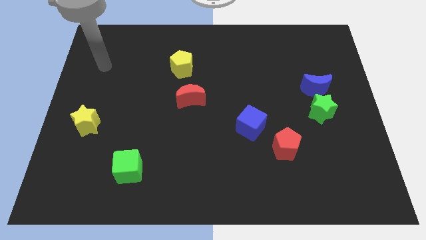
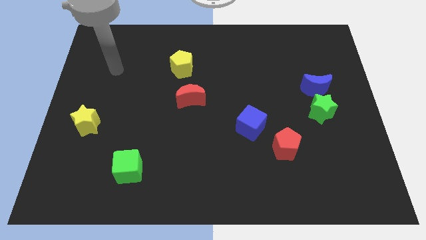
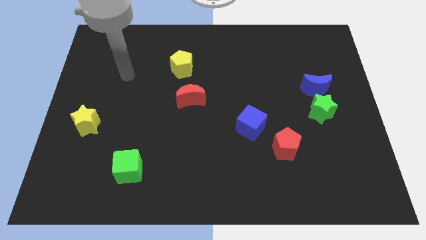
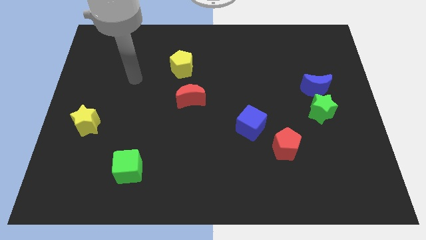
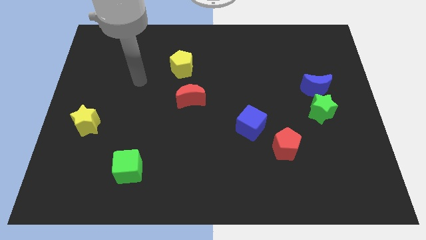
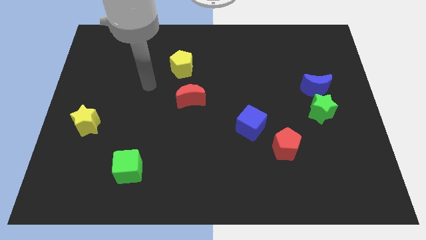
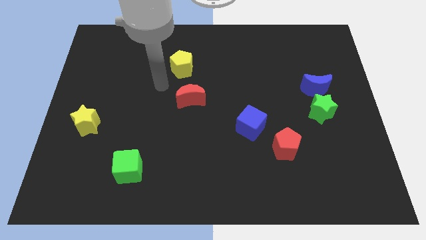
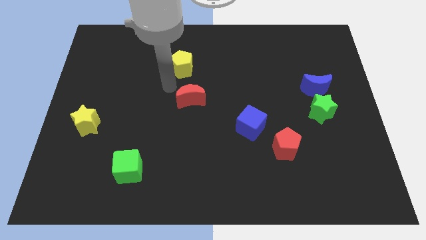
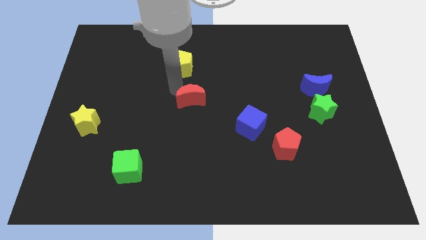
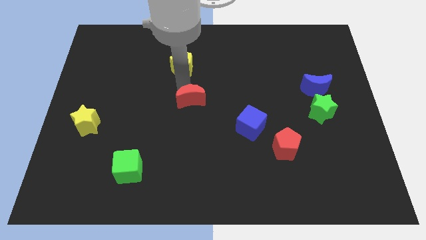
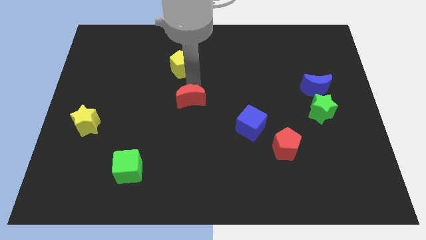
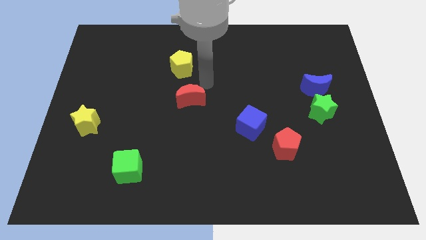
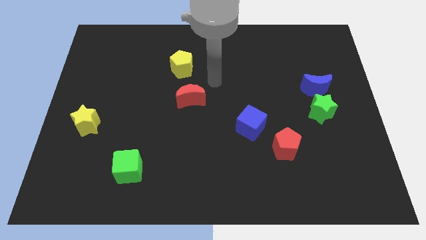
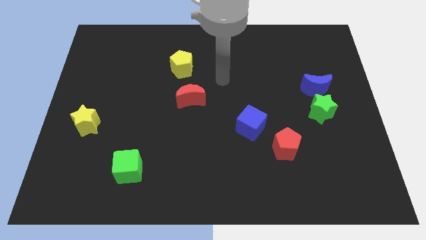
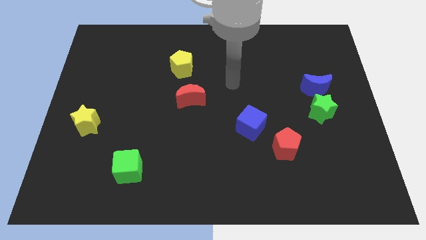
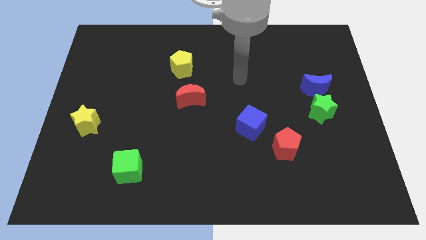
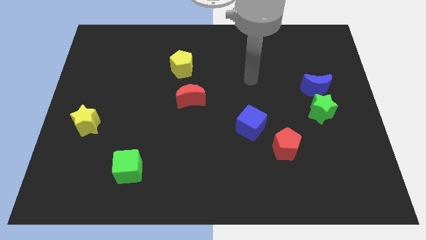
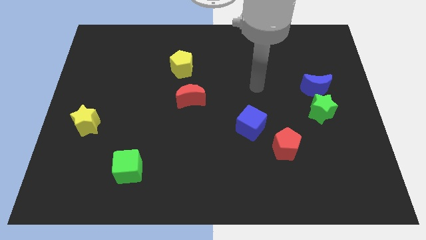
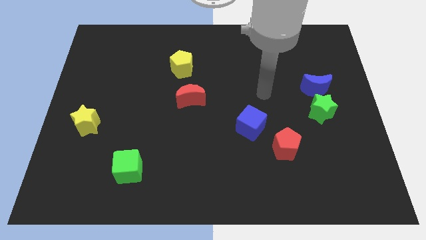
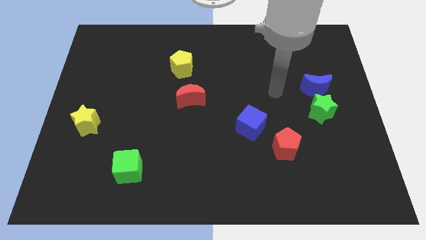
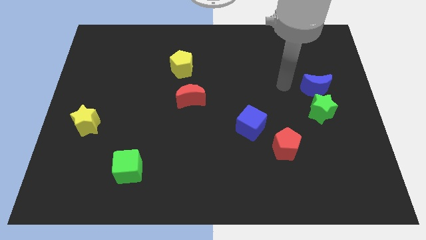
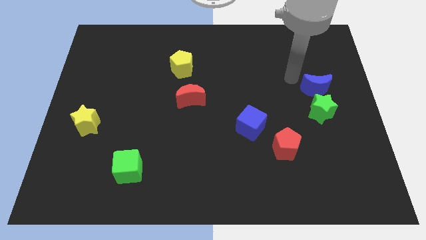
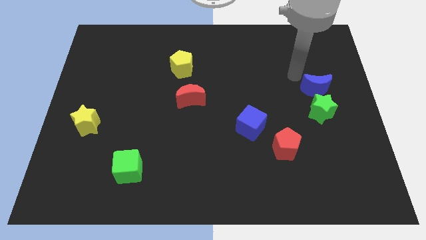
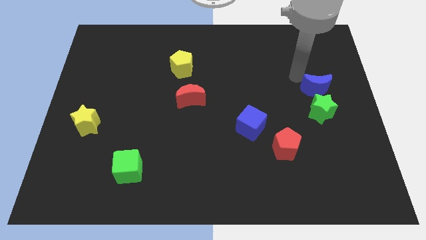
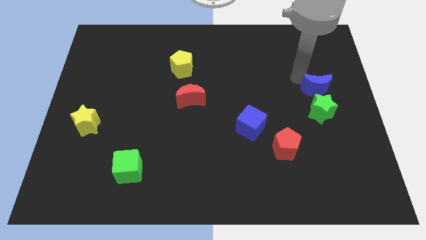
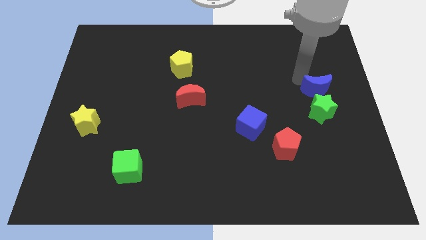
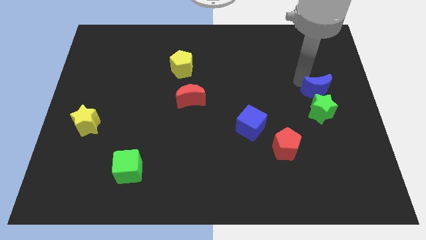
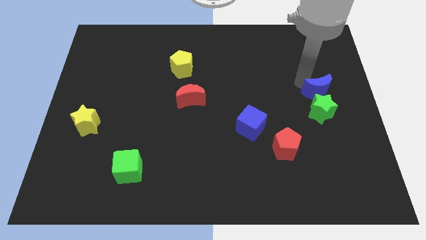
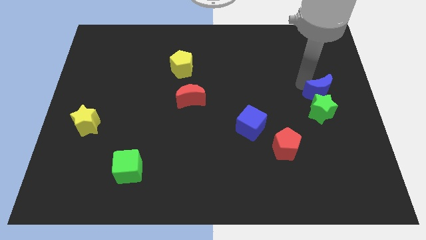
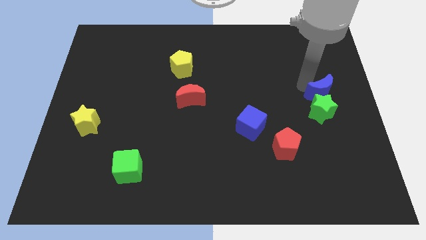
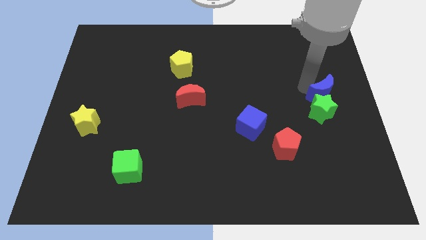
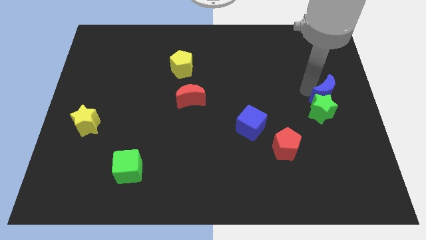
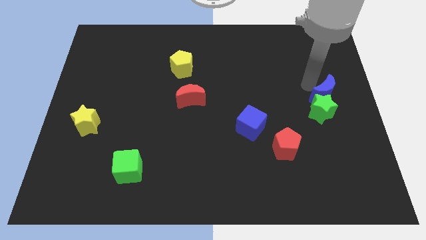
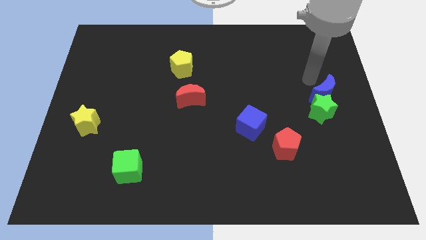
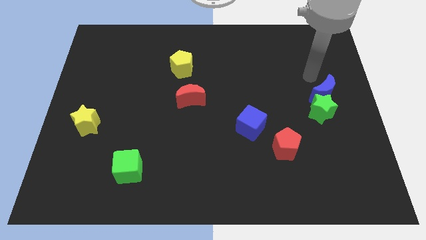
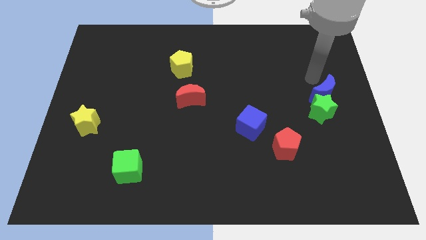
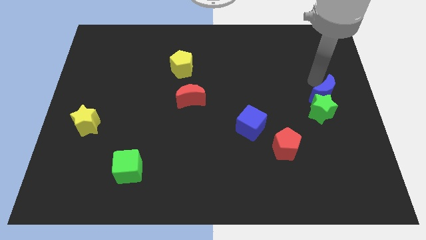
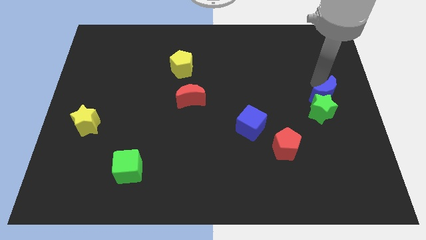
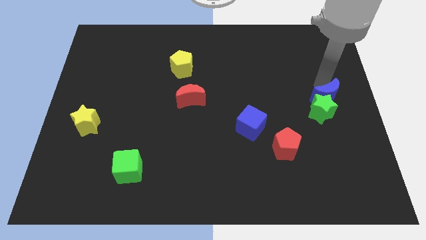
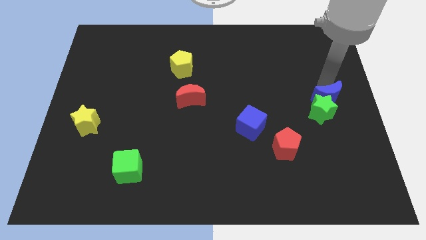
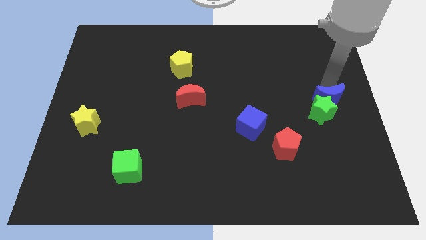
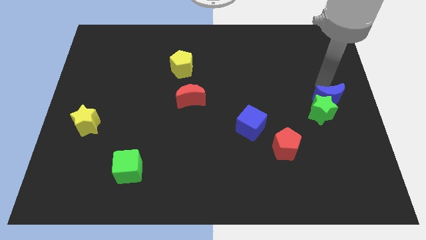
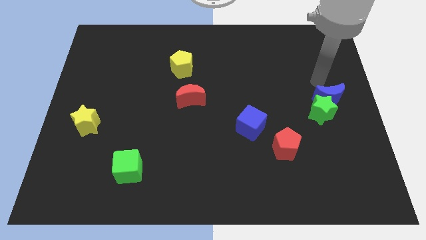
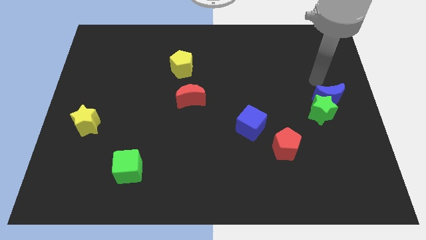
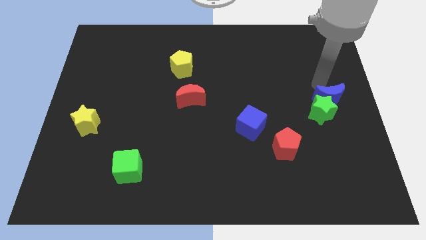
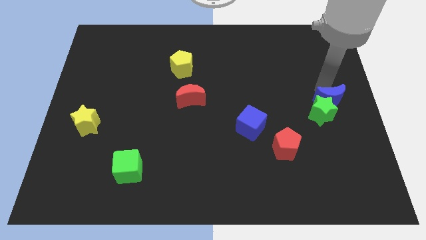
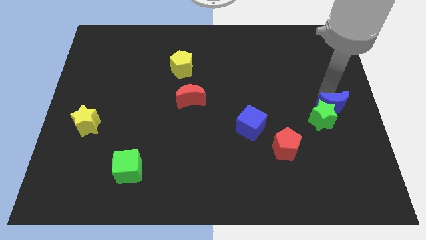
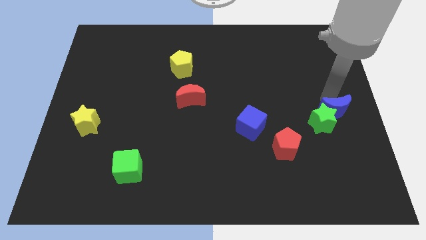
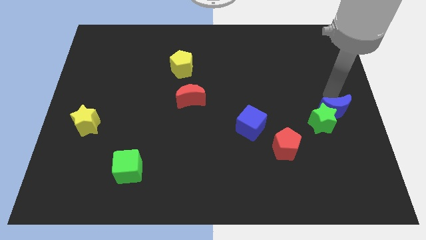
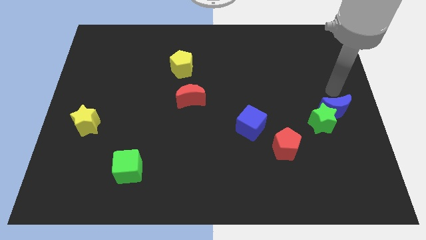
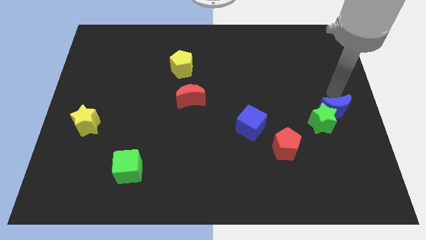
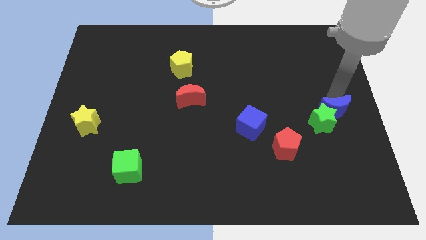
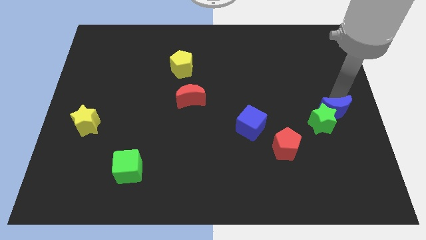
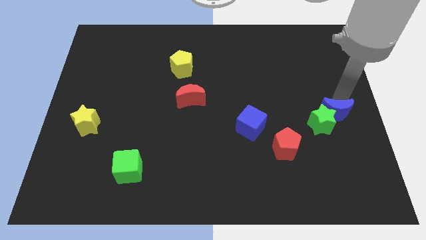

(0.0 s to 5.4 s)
slide the blue moon down somewhat

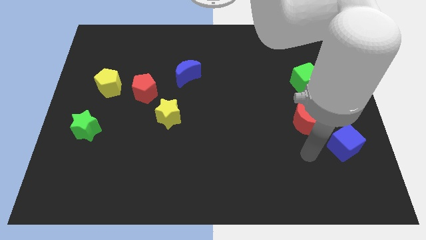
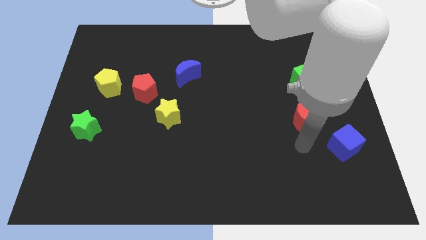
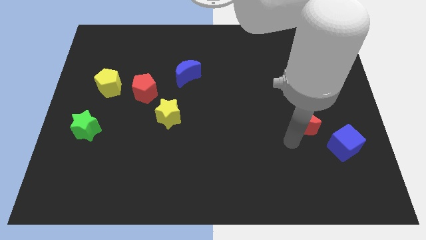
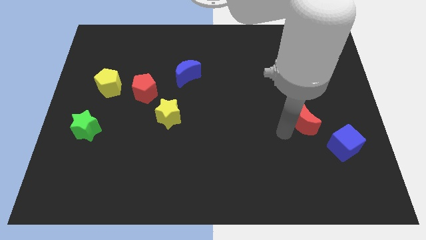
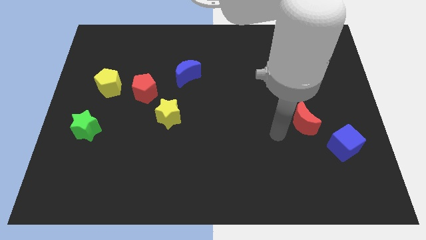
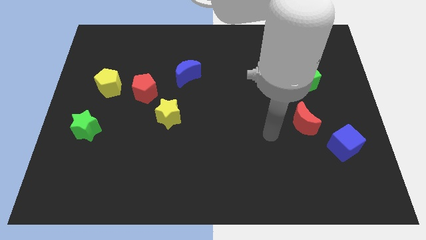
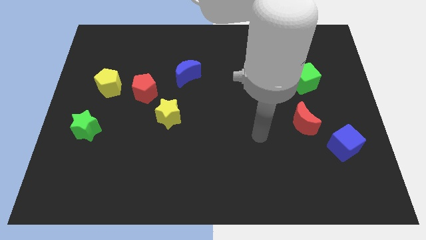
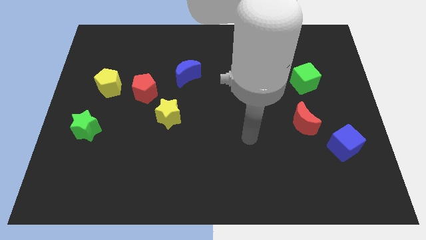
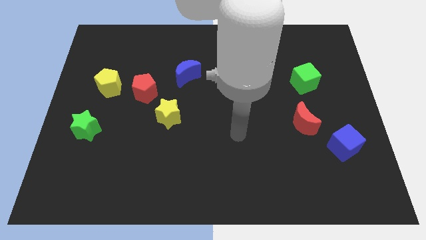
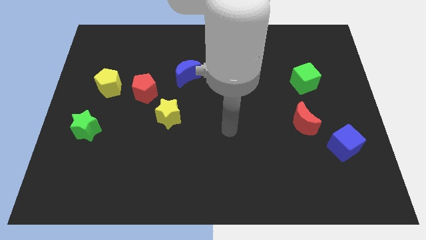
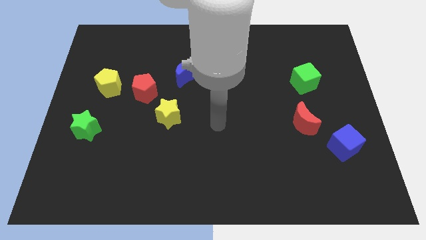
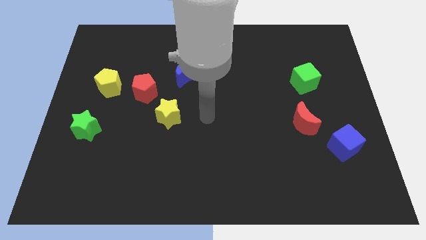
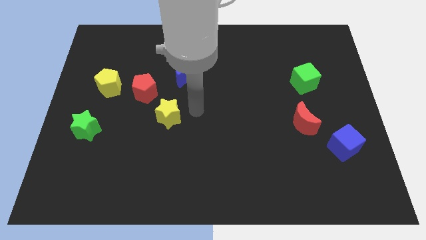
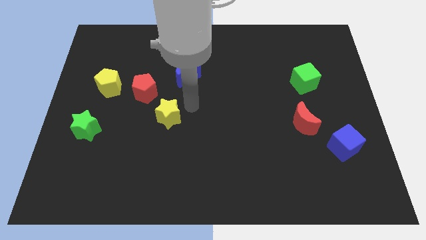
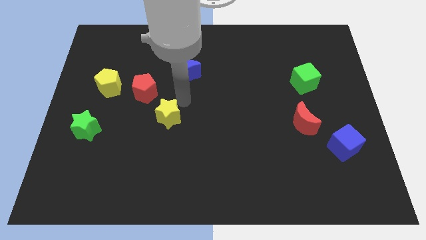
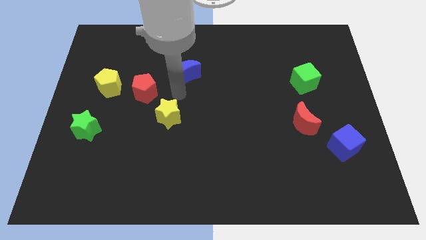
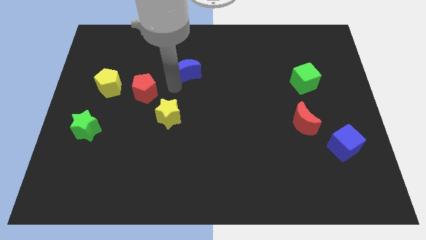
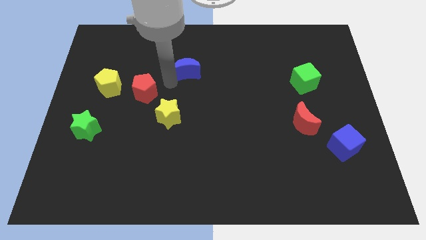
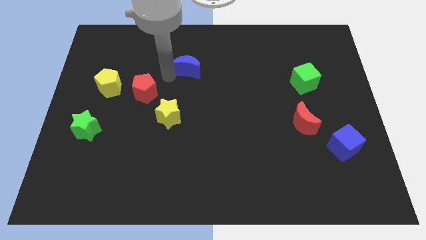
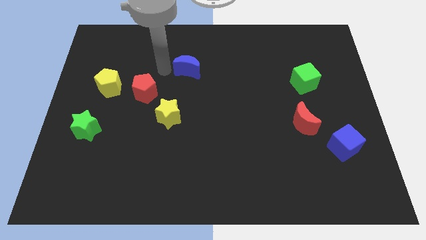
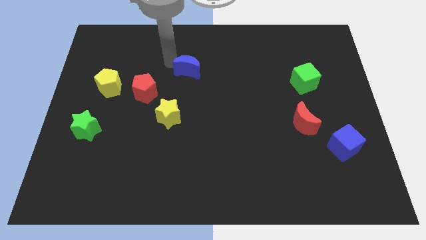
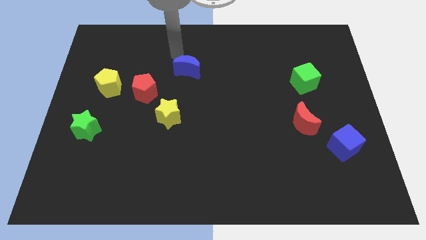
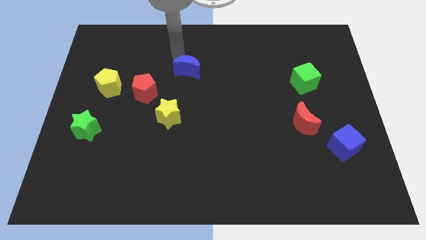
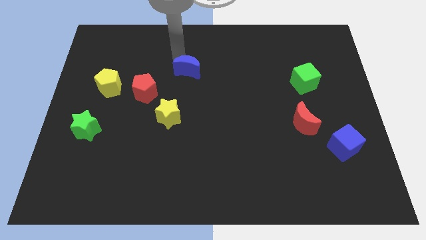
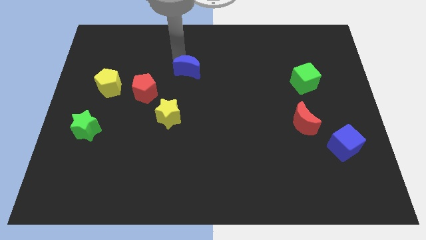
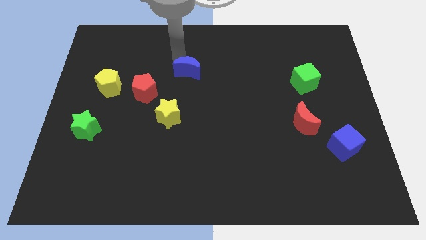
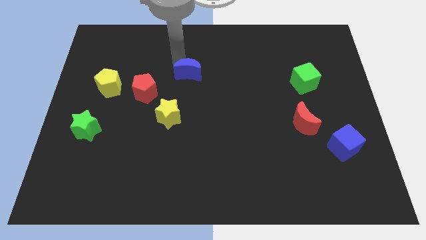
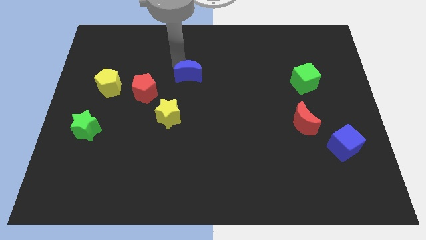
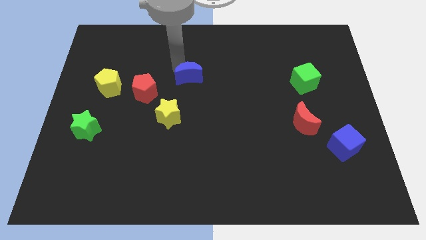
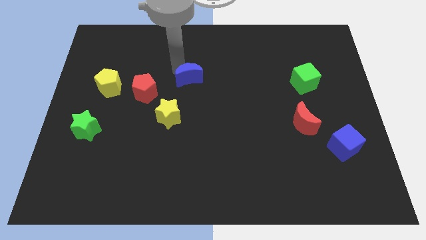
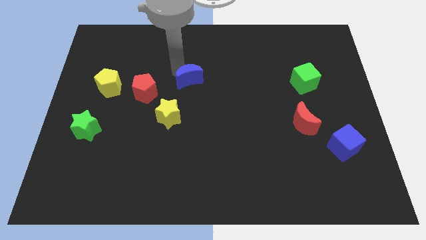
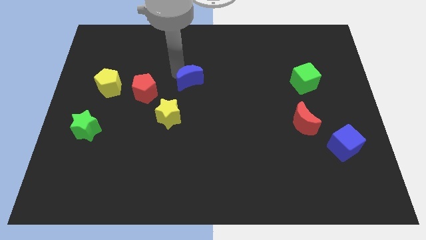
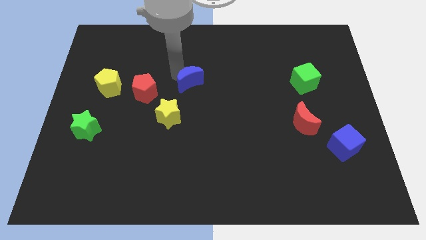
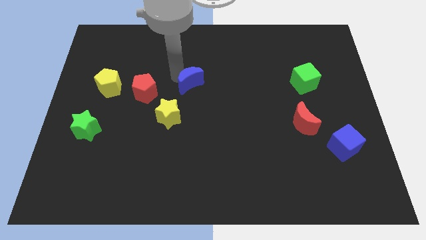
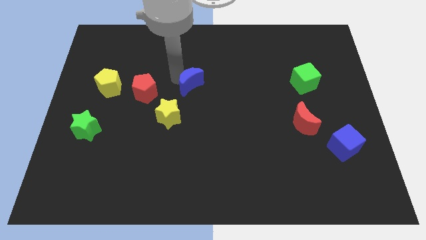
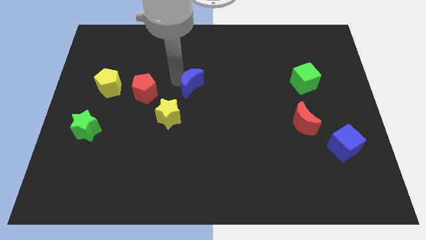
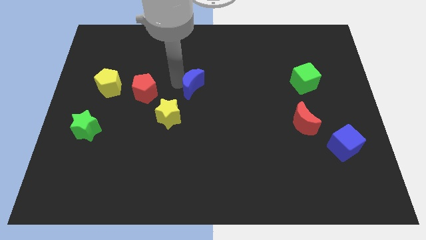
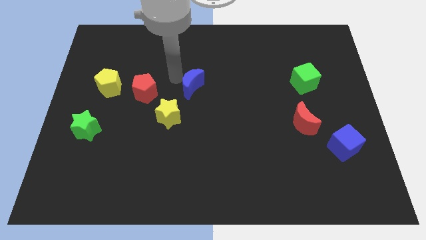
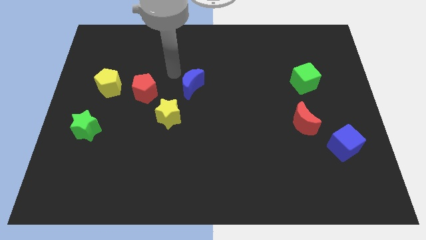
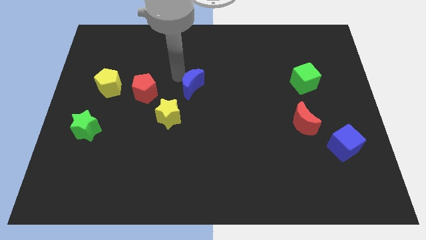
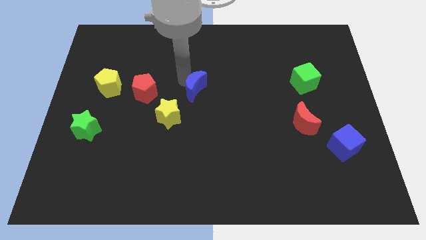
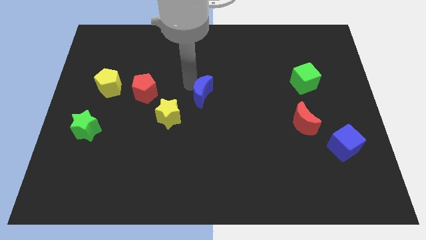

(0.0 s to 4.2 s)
push the blue moon a little down and then to the right
